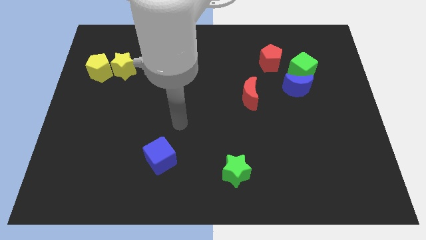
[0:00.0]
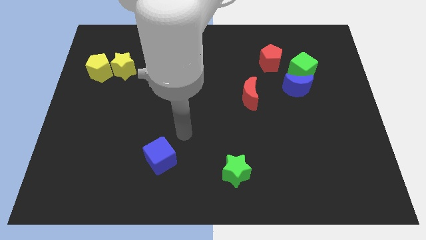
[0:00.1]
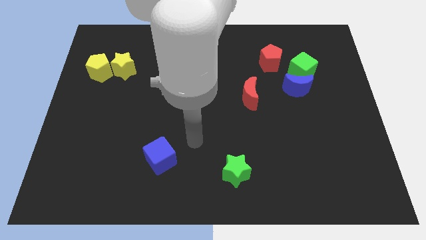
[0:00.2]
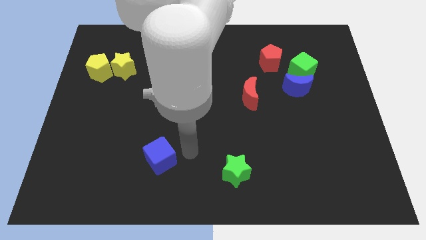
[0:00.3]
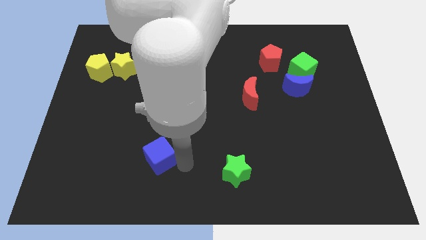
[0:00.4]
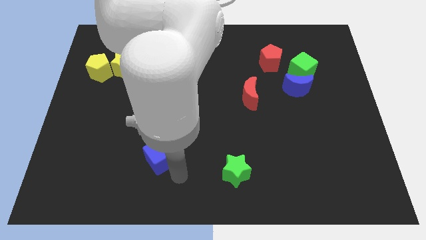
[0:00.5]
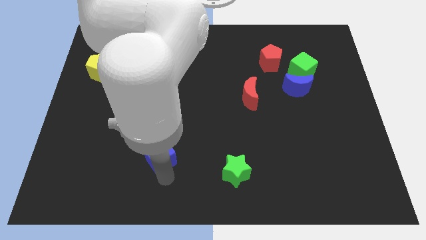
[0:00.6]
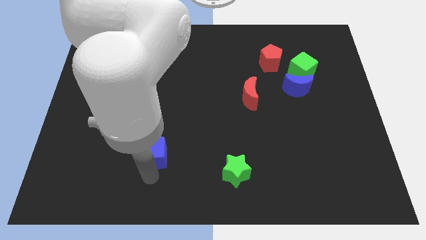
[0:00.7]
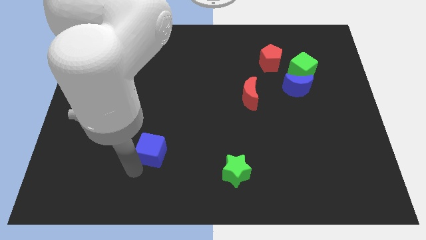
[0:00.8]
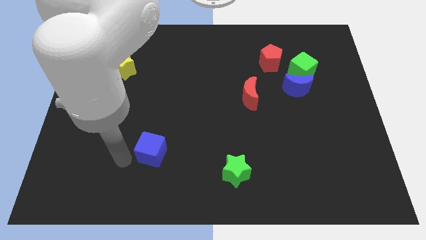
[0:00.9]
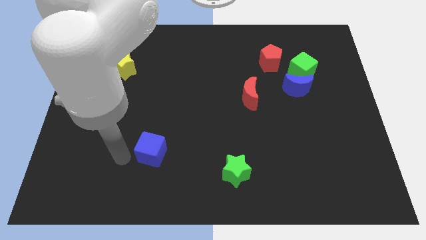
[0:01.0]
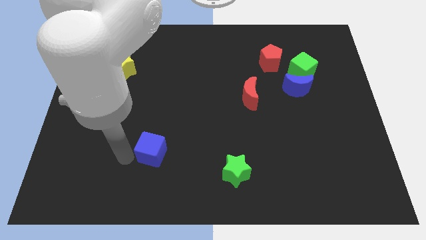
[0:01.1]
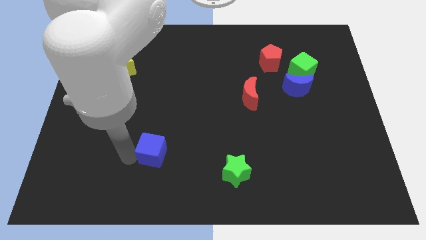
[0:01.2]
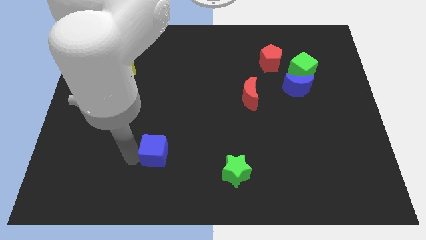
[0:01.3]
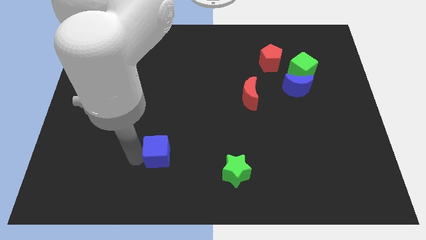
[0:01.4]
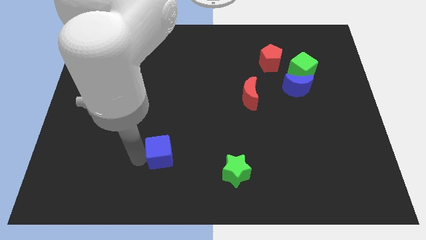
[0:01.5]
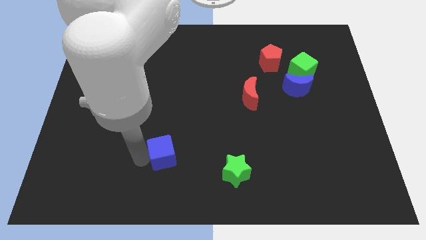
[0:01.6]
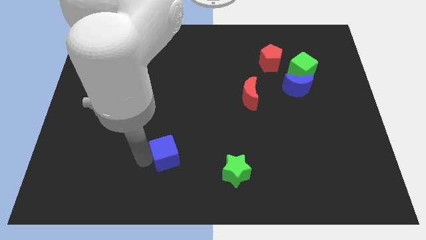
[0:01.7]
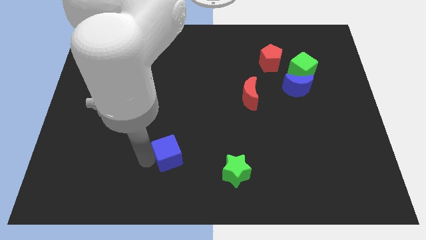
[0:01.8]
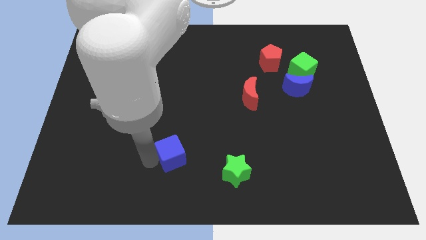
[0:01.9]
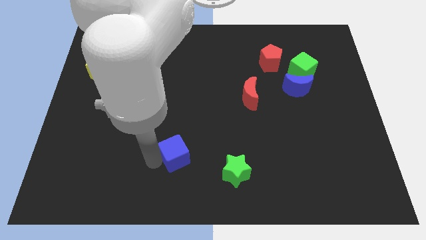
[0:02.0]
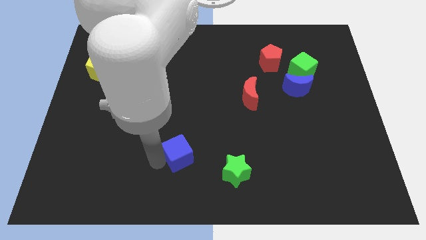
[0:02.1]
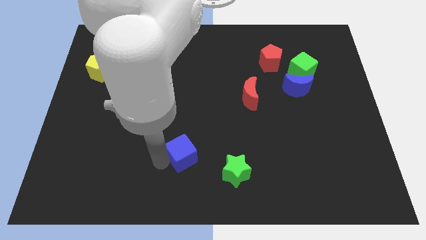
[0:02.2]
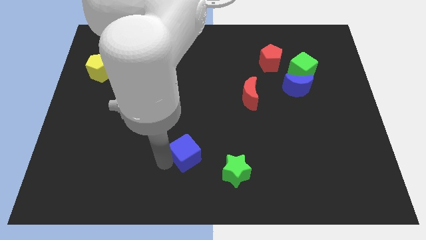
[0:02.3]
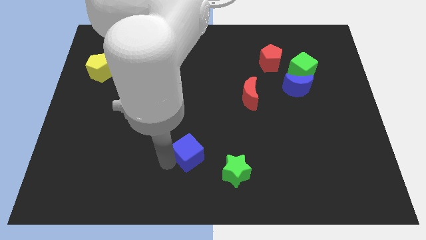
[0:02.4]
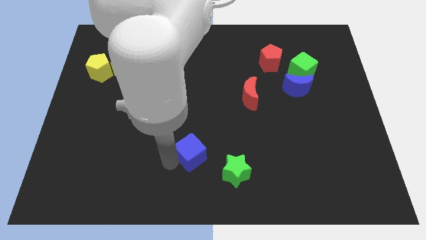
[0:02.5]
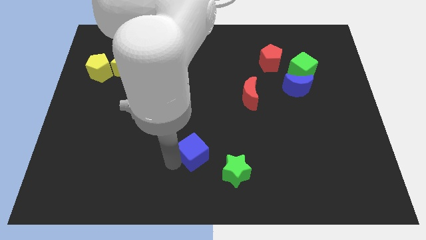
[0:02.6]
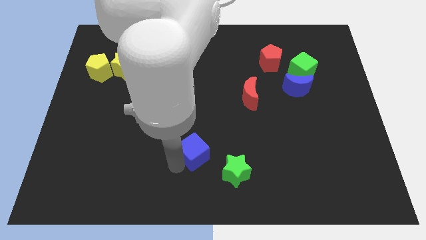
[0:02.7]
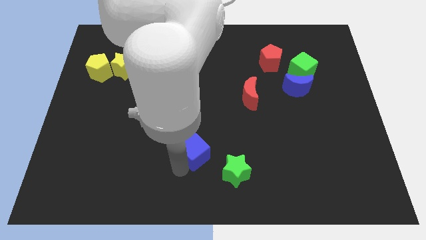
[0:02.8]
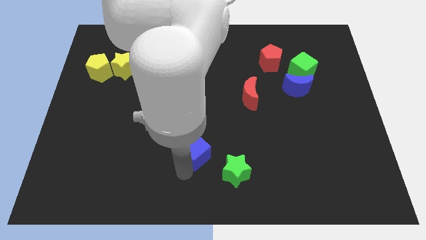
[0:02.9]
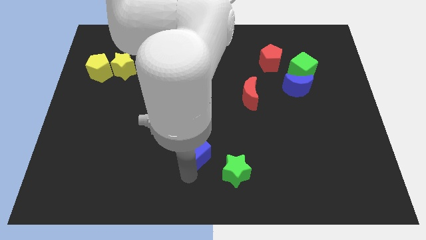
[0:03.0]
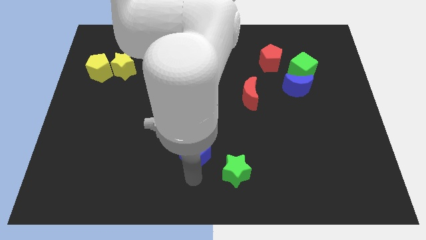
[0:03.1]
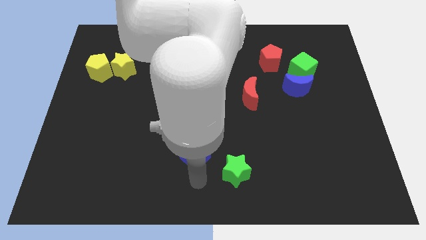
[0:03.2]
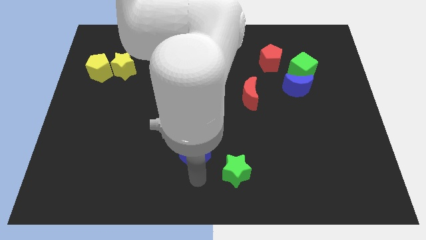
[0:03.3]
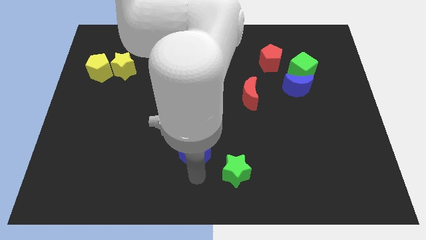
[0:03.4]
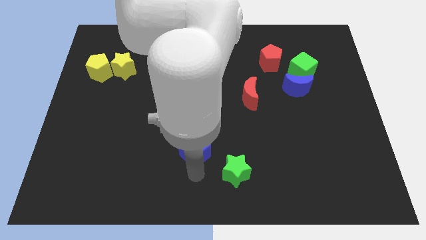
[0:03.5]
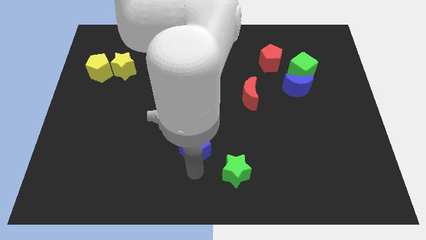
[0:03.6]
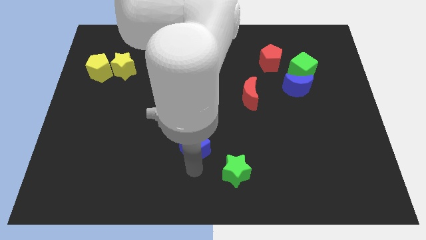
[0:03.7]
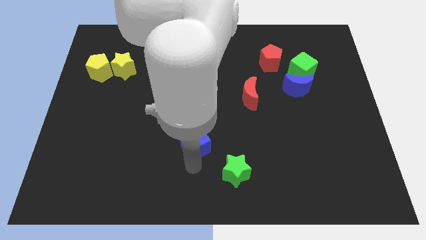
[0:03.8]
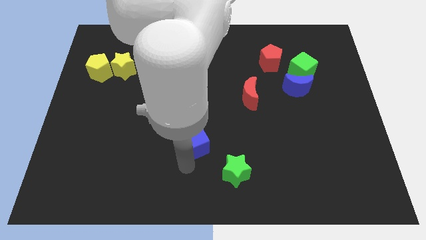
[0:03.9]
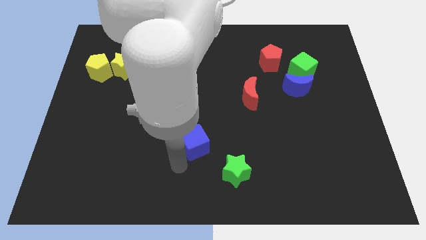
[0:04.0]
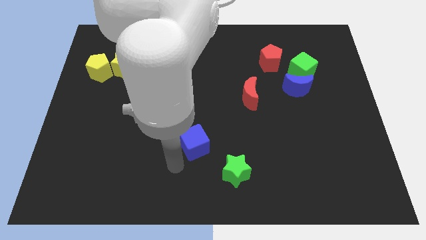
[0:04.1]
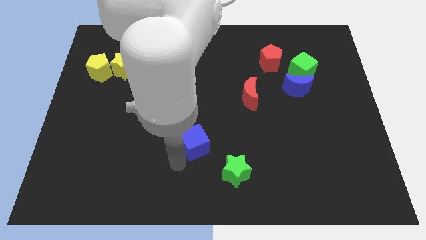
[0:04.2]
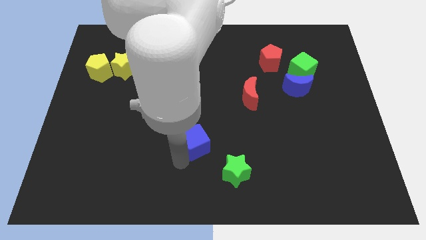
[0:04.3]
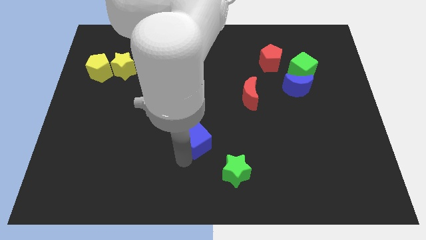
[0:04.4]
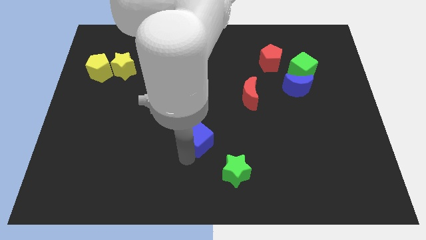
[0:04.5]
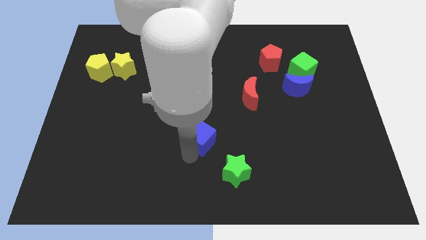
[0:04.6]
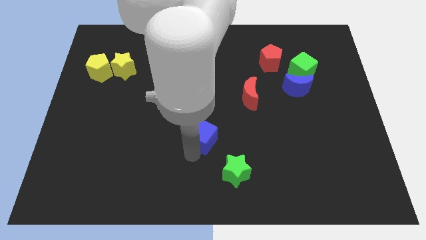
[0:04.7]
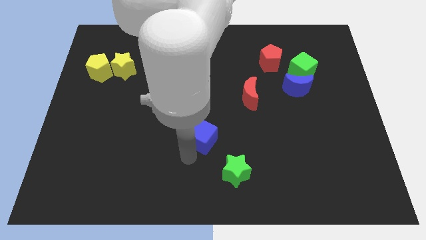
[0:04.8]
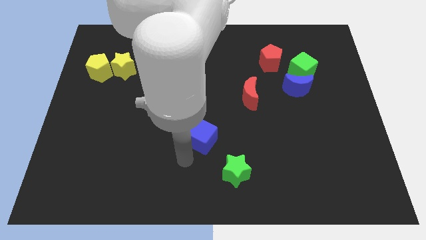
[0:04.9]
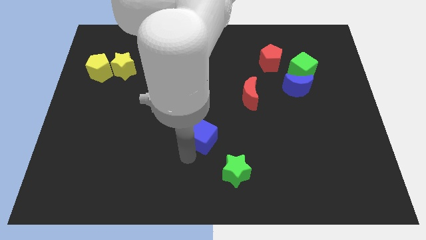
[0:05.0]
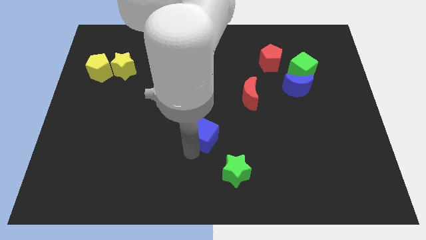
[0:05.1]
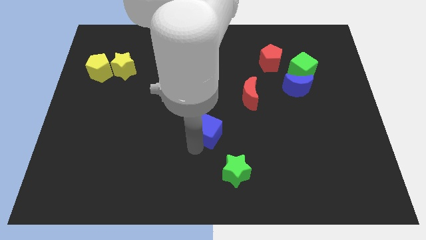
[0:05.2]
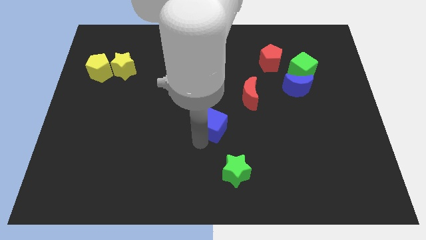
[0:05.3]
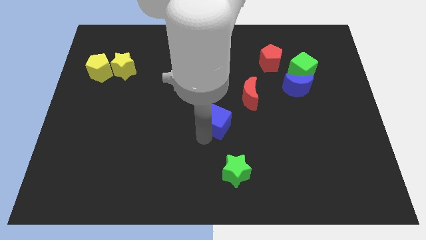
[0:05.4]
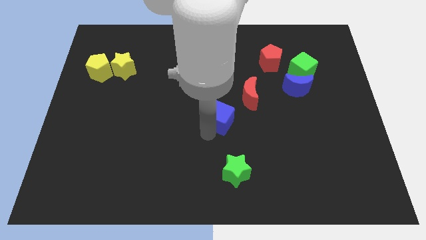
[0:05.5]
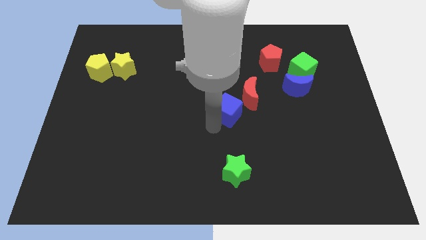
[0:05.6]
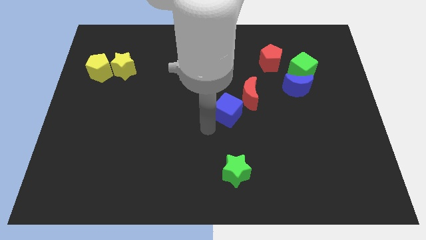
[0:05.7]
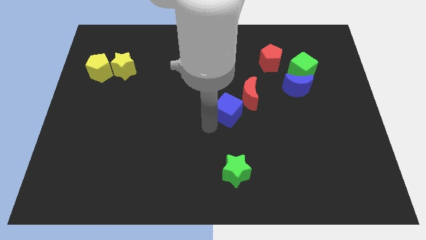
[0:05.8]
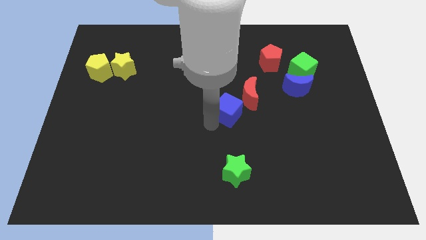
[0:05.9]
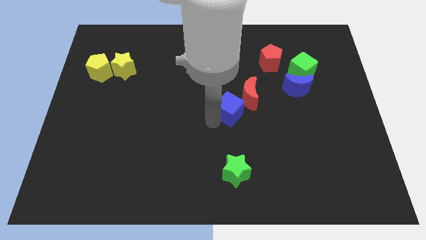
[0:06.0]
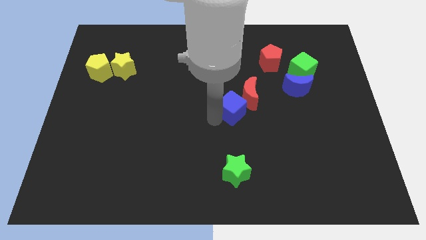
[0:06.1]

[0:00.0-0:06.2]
move the blue cube to the red moon

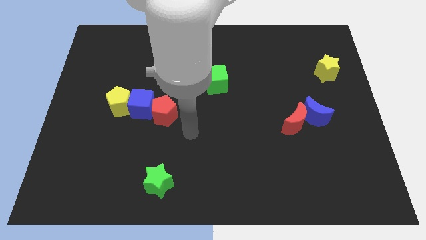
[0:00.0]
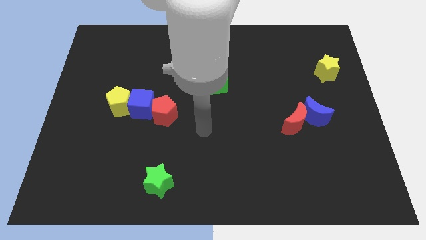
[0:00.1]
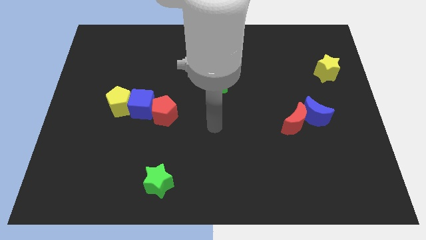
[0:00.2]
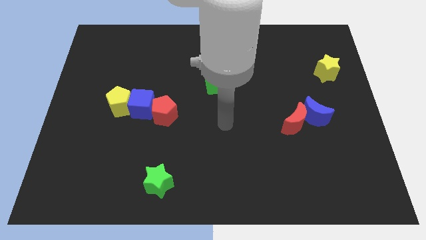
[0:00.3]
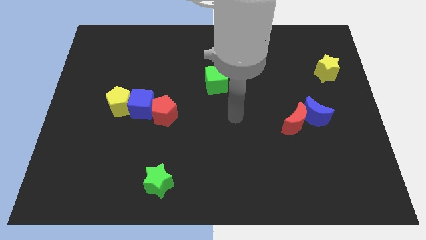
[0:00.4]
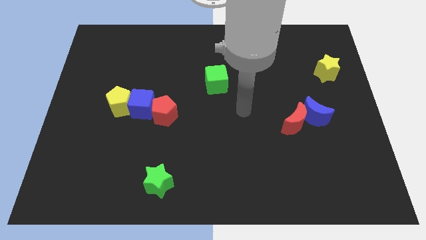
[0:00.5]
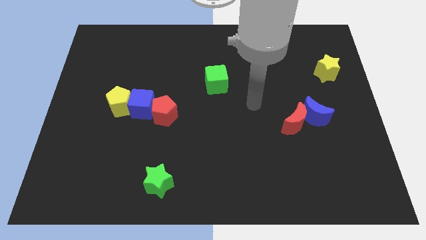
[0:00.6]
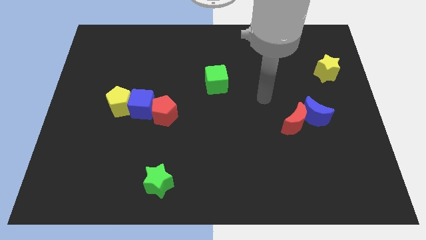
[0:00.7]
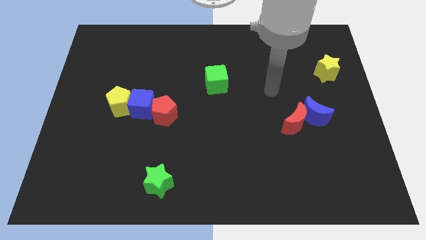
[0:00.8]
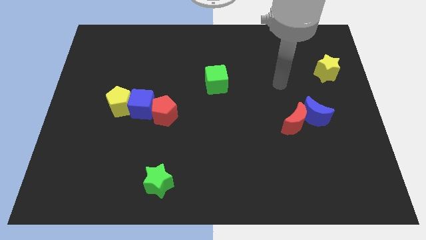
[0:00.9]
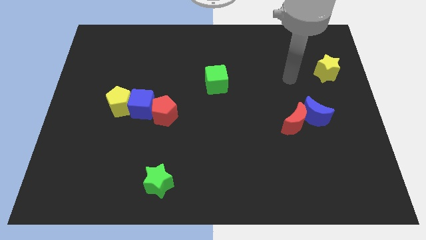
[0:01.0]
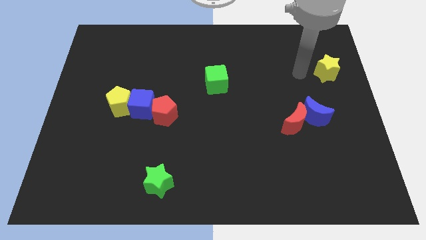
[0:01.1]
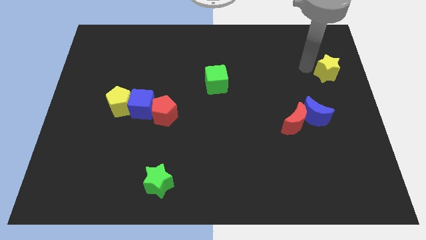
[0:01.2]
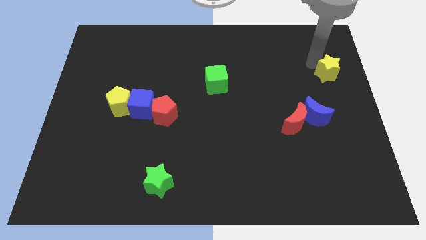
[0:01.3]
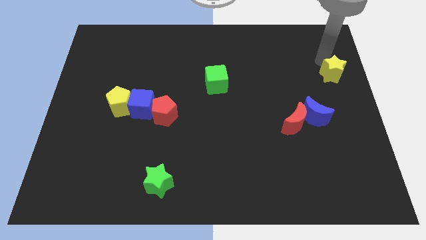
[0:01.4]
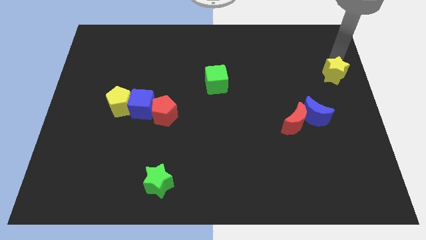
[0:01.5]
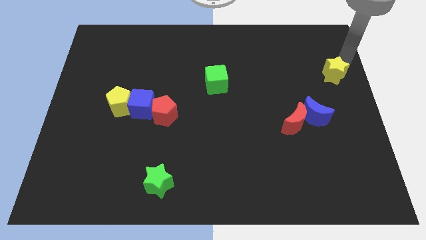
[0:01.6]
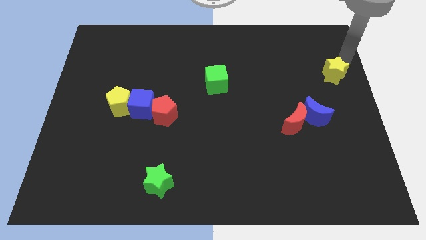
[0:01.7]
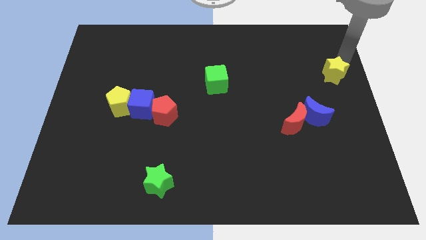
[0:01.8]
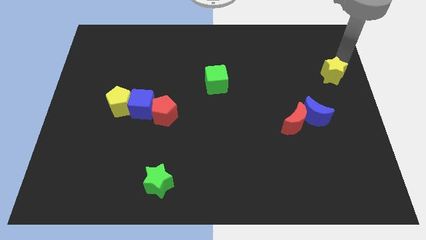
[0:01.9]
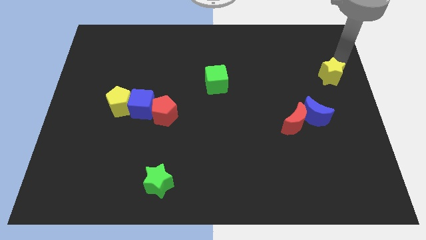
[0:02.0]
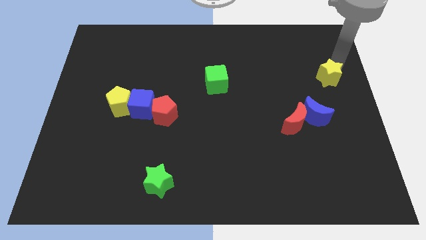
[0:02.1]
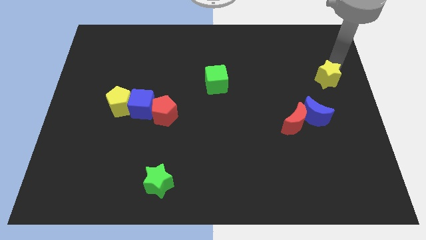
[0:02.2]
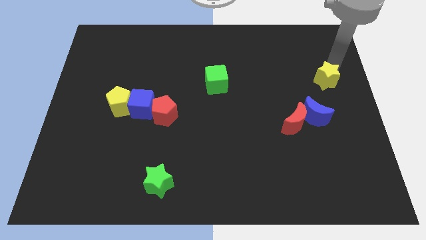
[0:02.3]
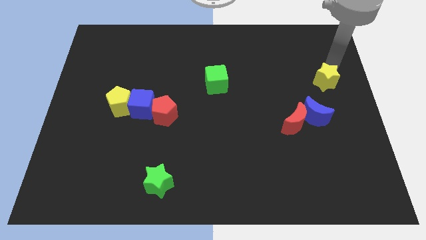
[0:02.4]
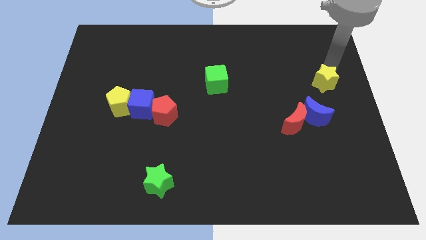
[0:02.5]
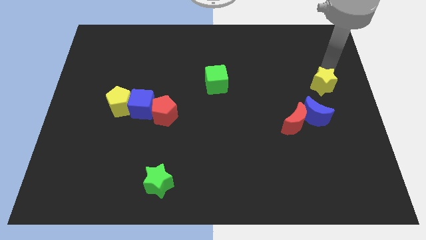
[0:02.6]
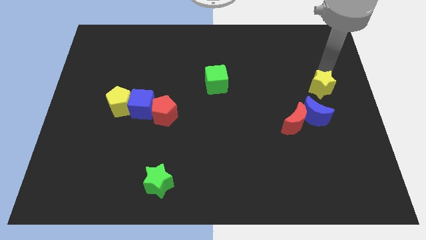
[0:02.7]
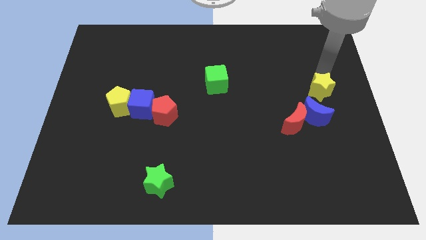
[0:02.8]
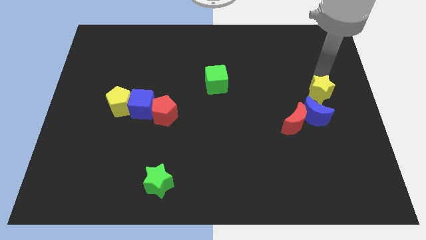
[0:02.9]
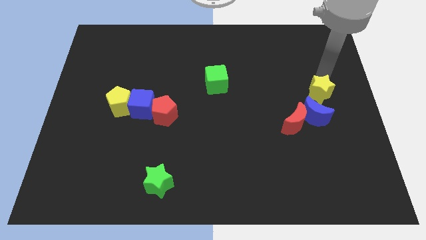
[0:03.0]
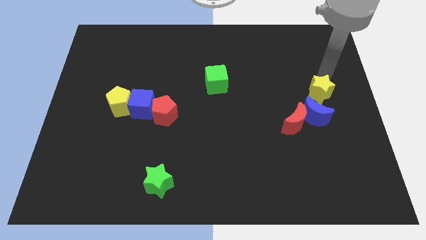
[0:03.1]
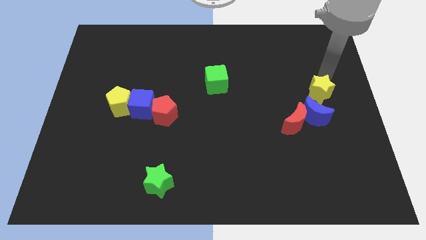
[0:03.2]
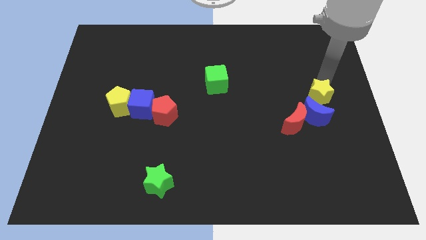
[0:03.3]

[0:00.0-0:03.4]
slide the yellow star close to the blue moon
